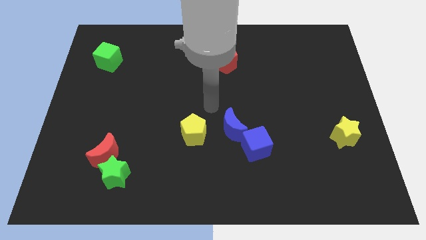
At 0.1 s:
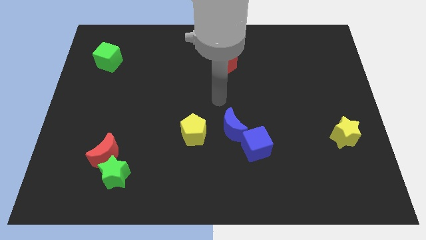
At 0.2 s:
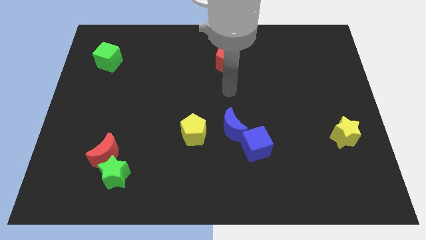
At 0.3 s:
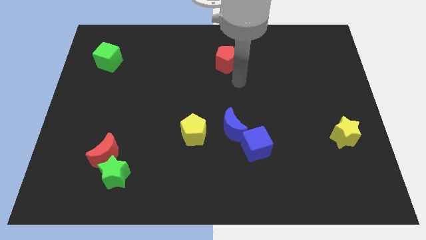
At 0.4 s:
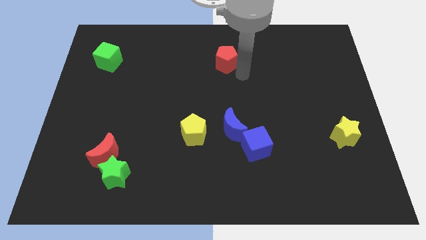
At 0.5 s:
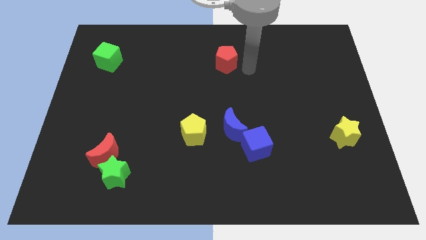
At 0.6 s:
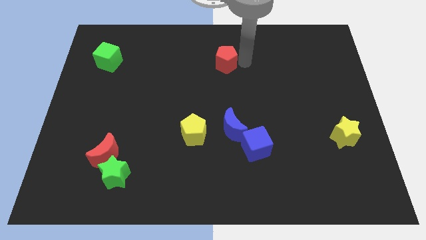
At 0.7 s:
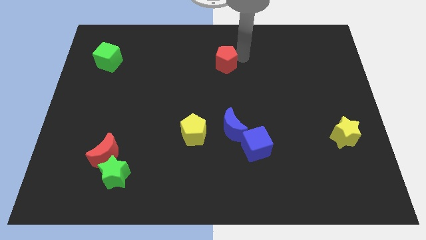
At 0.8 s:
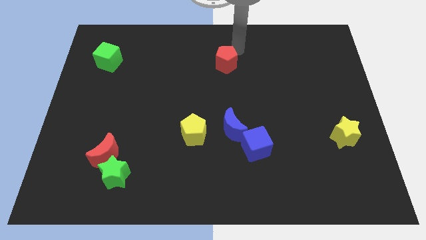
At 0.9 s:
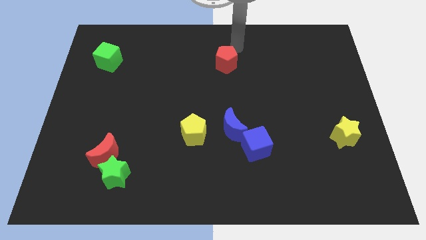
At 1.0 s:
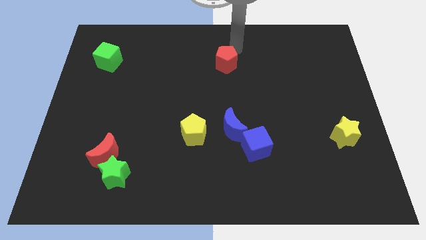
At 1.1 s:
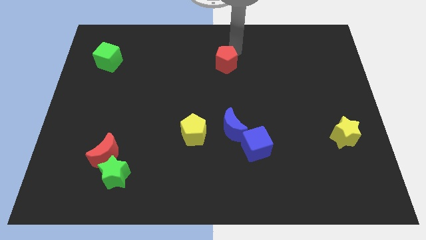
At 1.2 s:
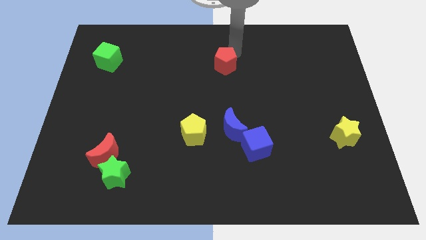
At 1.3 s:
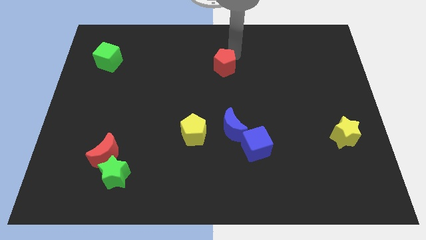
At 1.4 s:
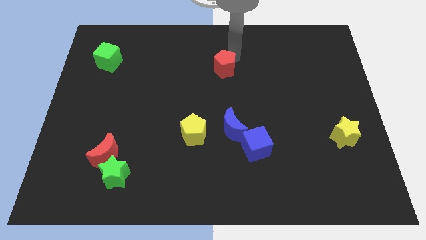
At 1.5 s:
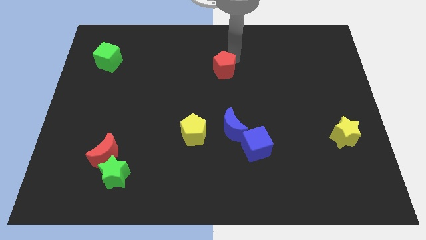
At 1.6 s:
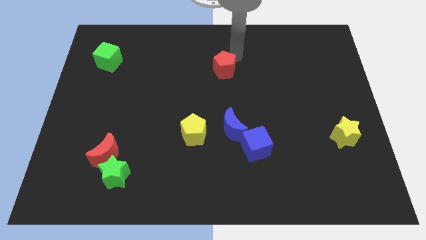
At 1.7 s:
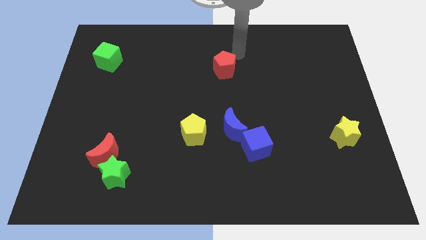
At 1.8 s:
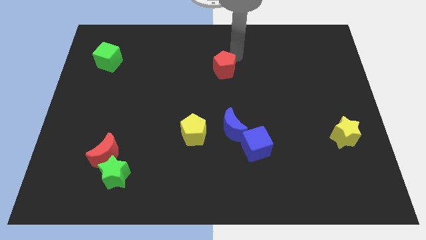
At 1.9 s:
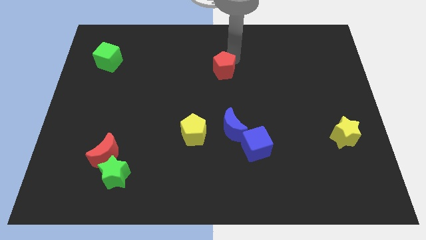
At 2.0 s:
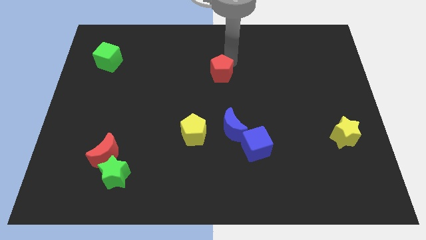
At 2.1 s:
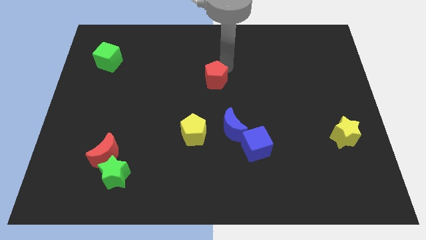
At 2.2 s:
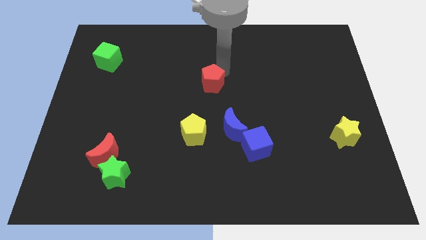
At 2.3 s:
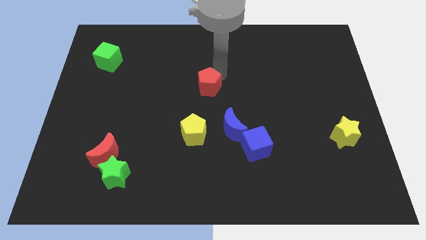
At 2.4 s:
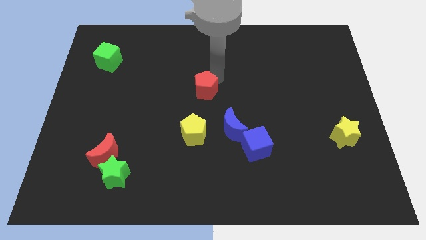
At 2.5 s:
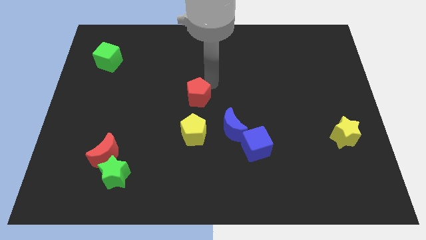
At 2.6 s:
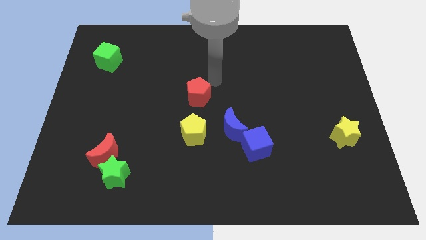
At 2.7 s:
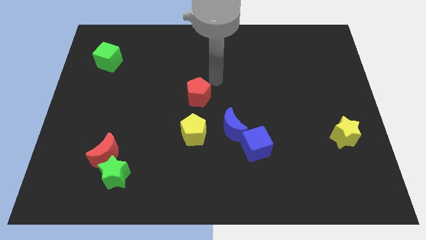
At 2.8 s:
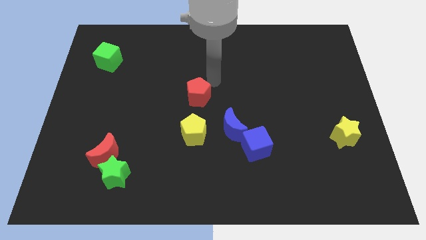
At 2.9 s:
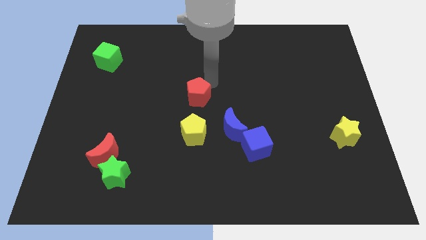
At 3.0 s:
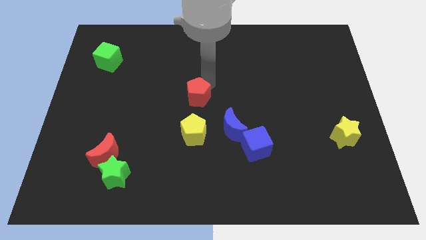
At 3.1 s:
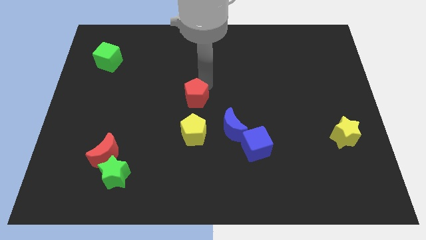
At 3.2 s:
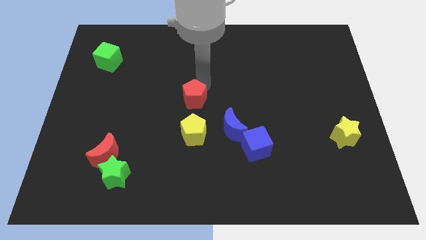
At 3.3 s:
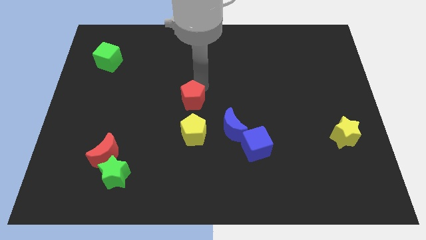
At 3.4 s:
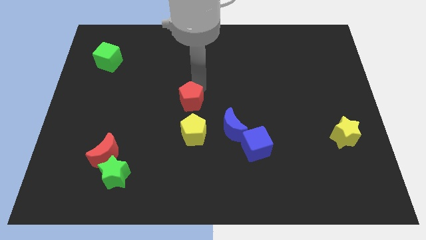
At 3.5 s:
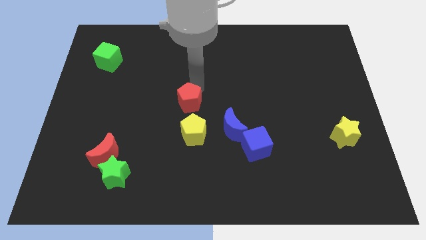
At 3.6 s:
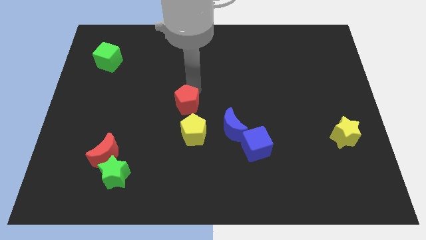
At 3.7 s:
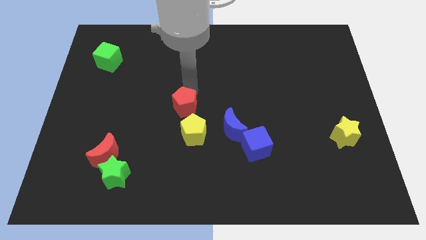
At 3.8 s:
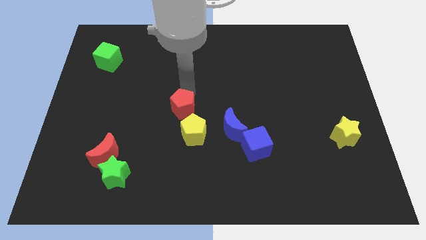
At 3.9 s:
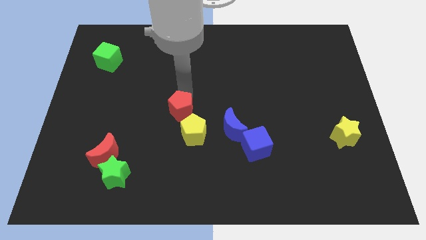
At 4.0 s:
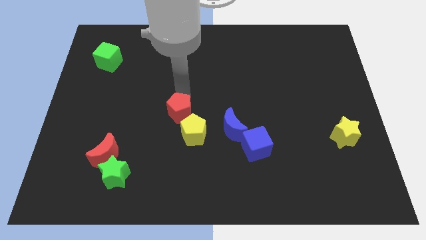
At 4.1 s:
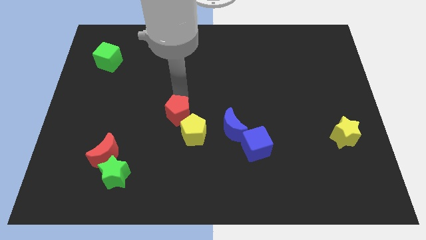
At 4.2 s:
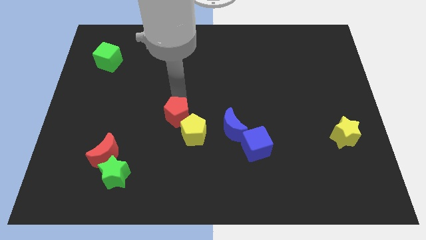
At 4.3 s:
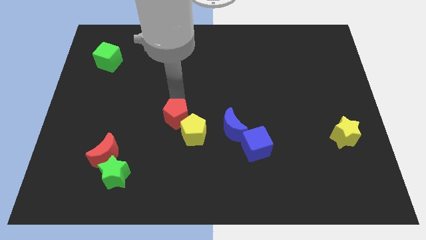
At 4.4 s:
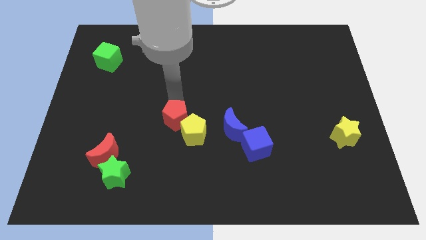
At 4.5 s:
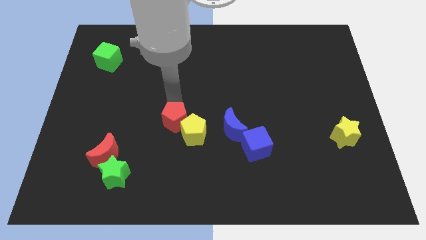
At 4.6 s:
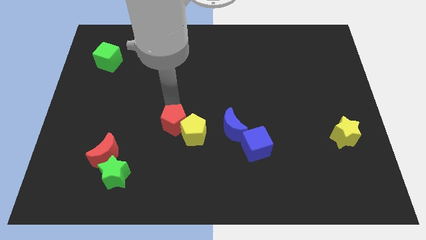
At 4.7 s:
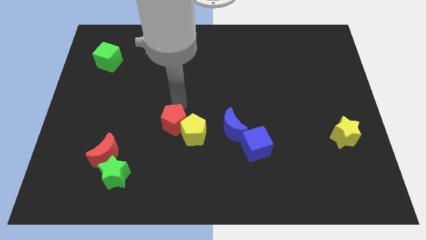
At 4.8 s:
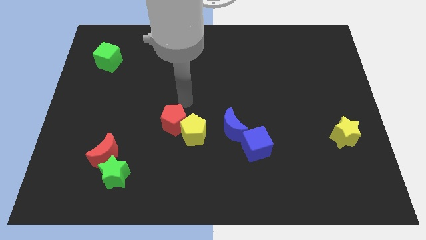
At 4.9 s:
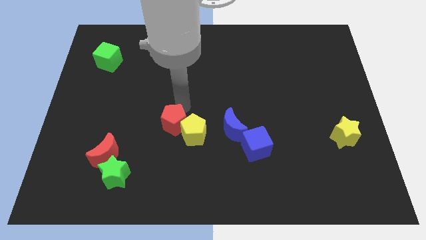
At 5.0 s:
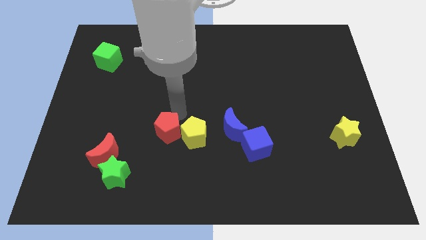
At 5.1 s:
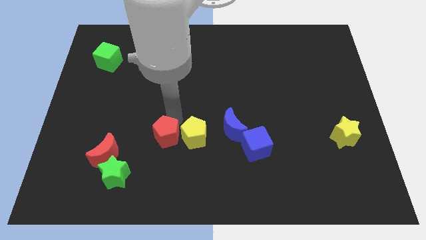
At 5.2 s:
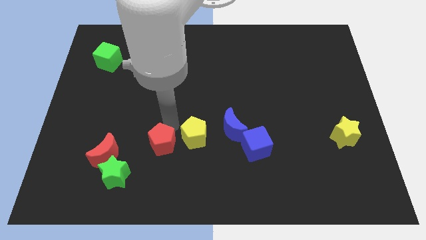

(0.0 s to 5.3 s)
move the red pentagon just right of the red moon

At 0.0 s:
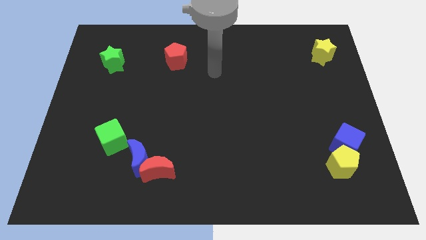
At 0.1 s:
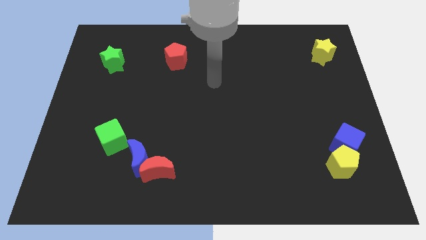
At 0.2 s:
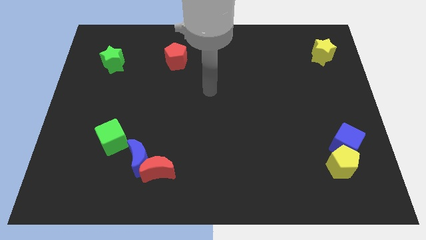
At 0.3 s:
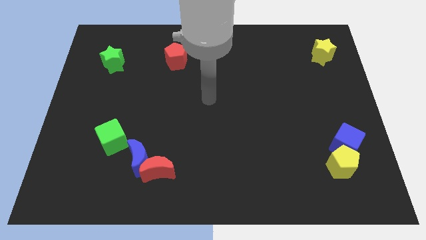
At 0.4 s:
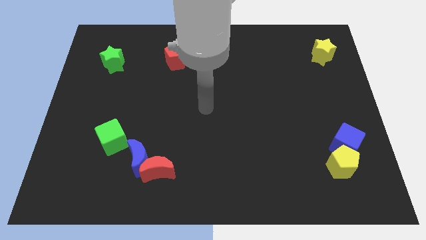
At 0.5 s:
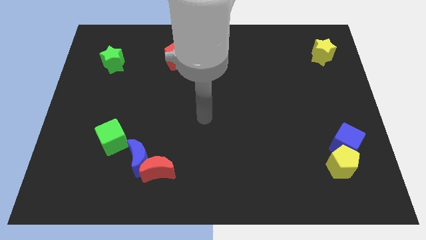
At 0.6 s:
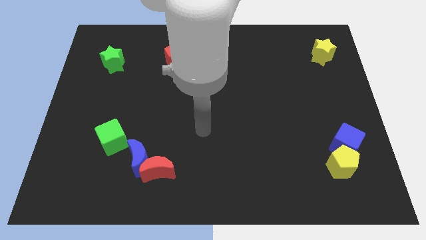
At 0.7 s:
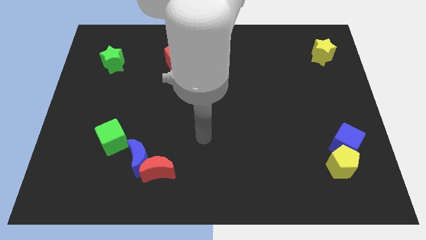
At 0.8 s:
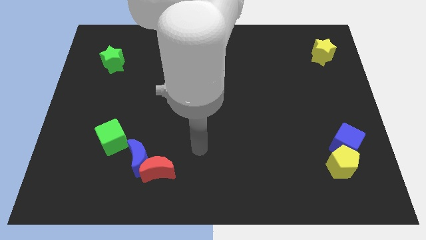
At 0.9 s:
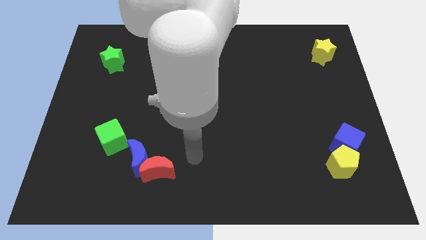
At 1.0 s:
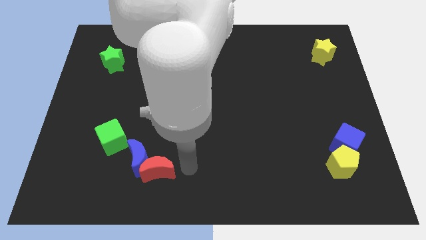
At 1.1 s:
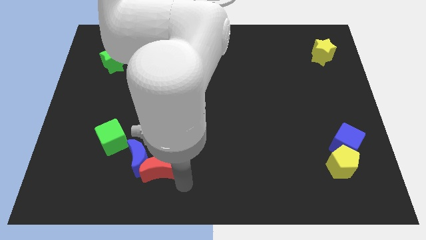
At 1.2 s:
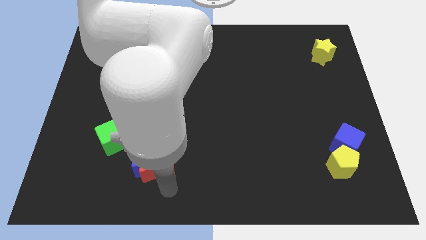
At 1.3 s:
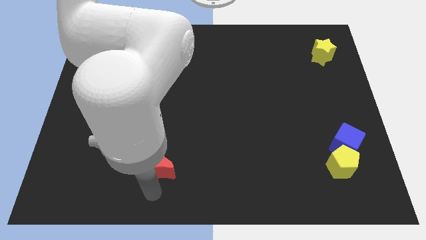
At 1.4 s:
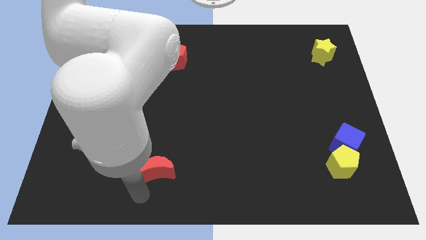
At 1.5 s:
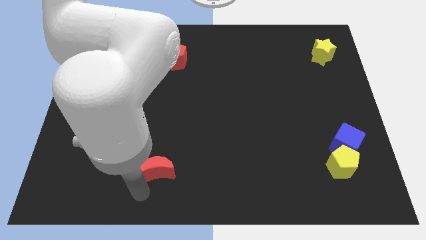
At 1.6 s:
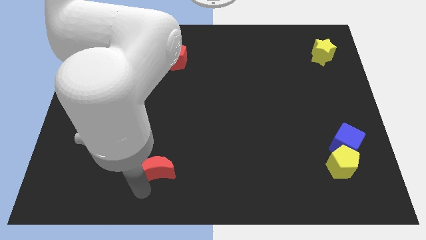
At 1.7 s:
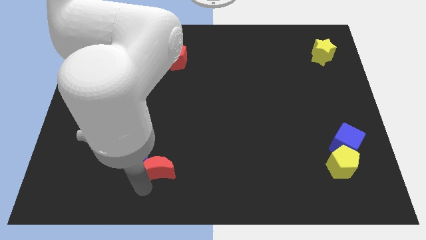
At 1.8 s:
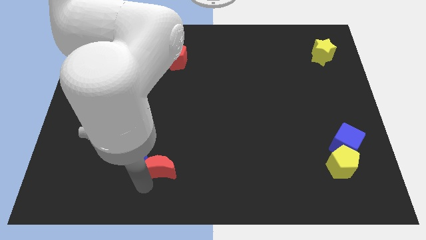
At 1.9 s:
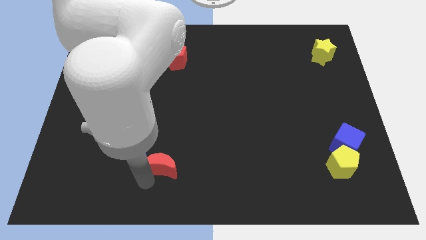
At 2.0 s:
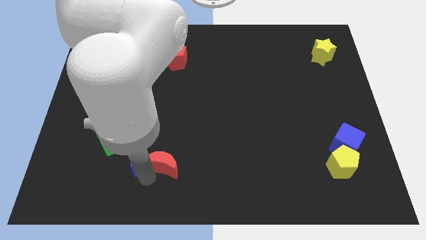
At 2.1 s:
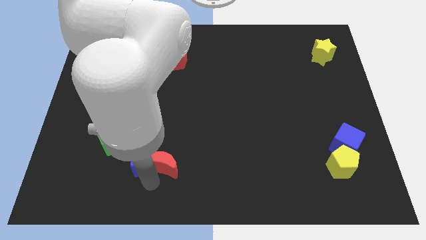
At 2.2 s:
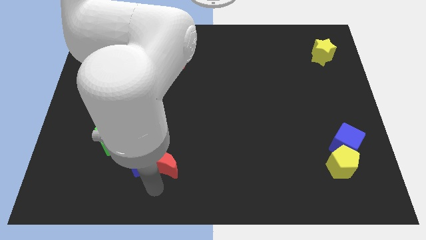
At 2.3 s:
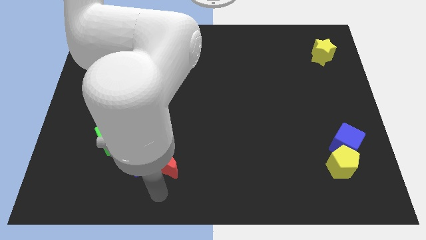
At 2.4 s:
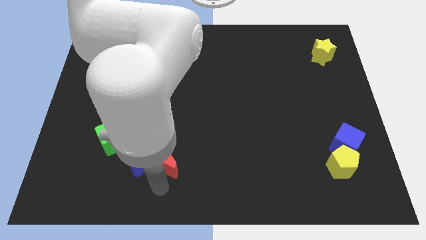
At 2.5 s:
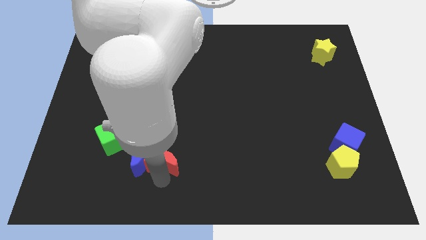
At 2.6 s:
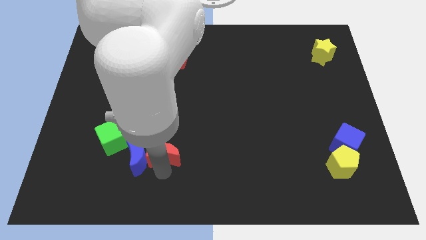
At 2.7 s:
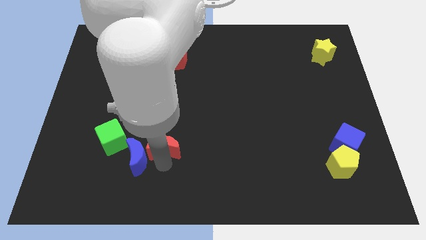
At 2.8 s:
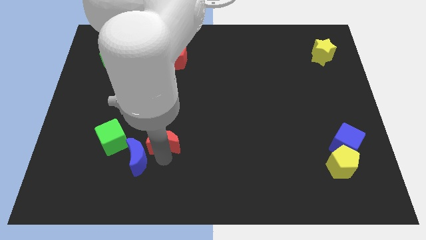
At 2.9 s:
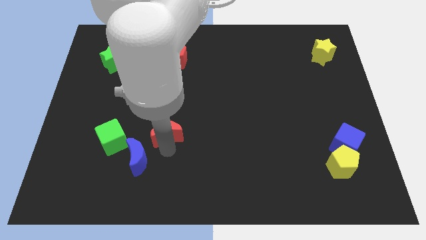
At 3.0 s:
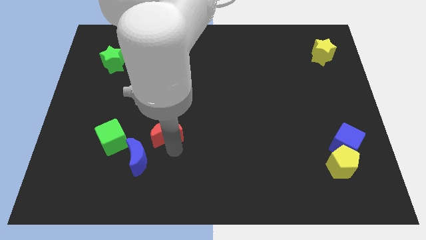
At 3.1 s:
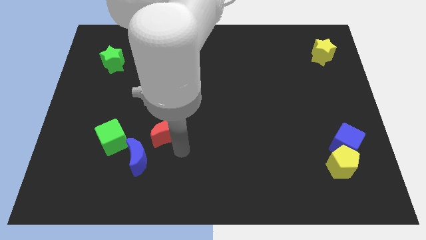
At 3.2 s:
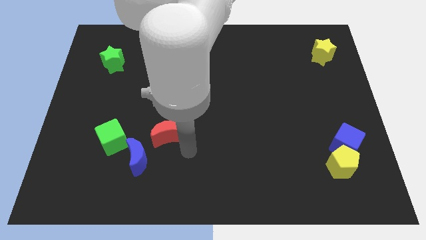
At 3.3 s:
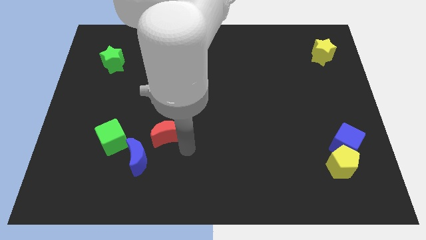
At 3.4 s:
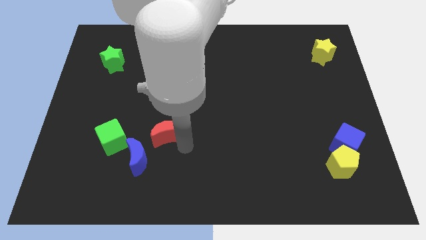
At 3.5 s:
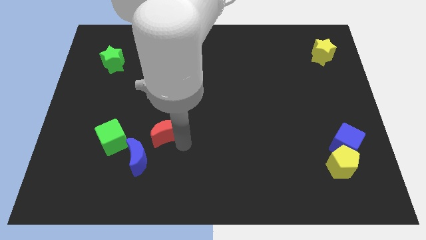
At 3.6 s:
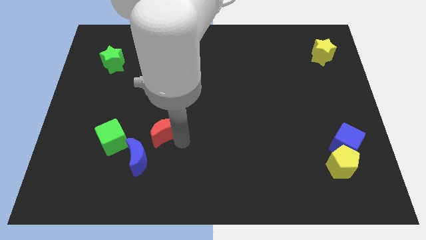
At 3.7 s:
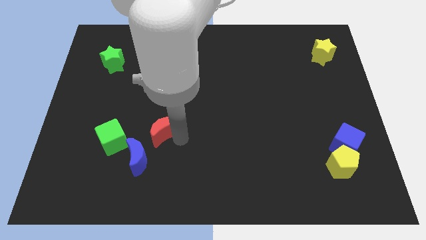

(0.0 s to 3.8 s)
put the red moon to the top side of the blue moon
